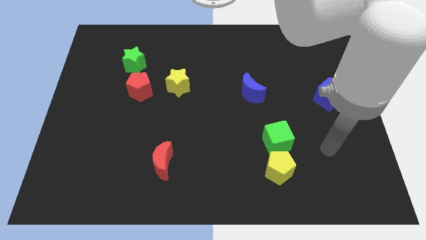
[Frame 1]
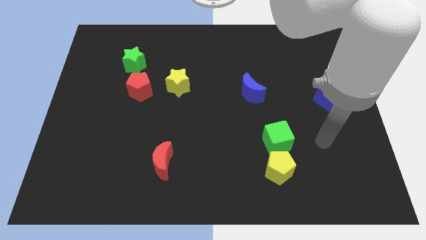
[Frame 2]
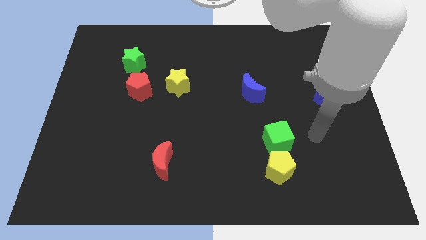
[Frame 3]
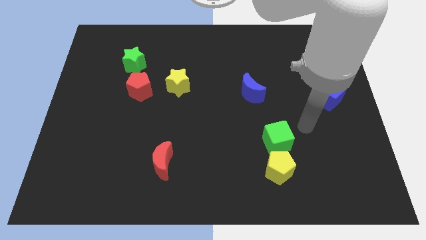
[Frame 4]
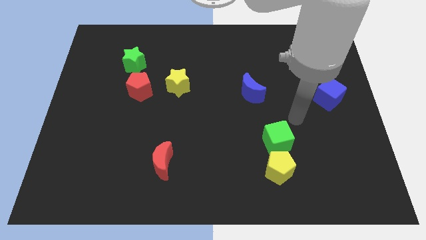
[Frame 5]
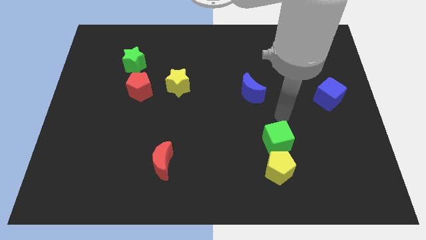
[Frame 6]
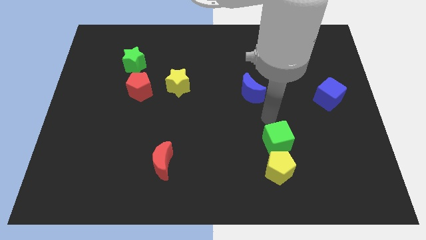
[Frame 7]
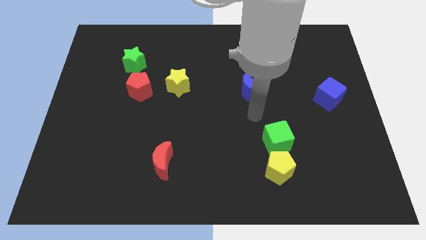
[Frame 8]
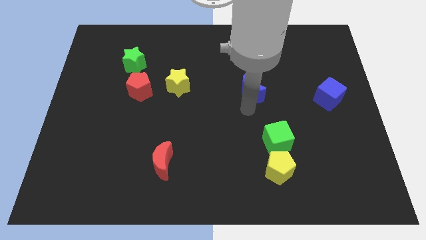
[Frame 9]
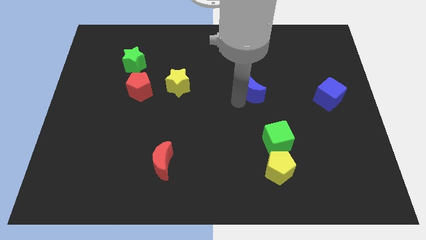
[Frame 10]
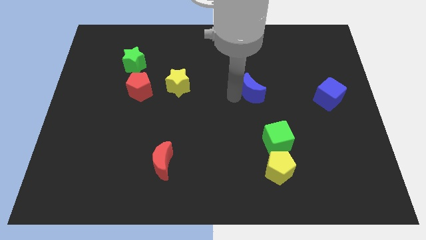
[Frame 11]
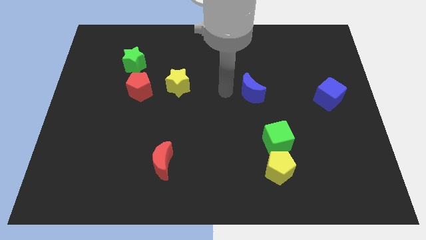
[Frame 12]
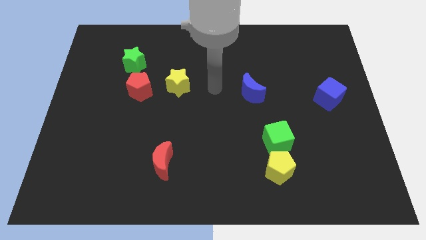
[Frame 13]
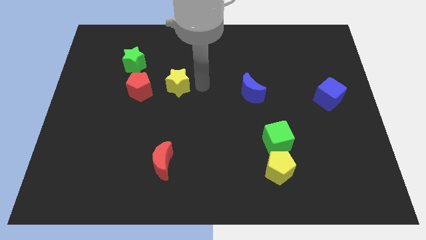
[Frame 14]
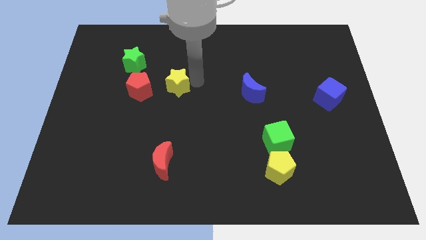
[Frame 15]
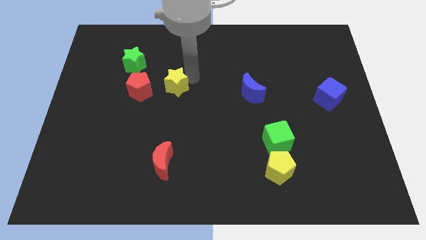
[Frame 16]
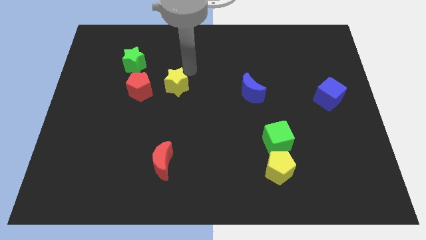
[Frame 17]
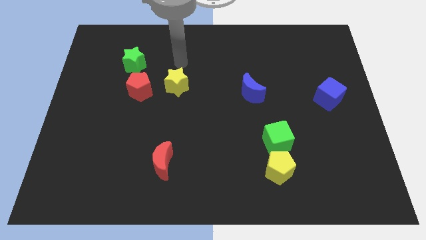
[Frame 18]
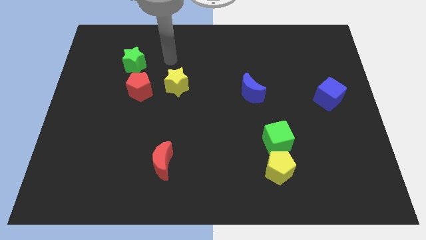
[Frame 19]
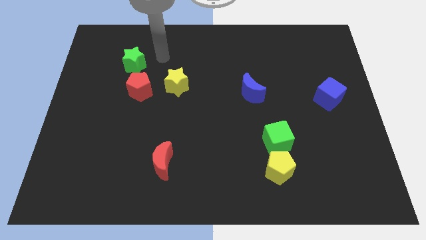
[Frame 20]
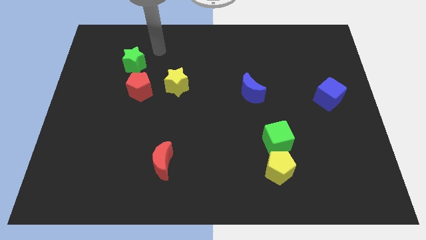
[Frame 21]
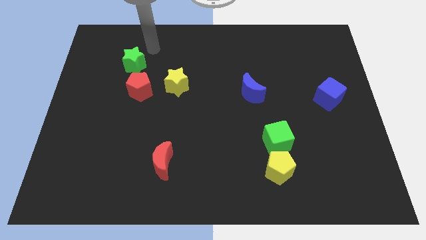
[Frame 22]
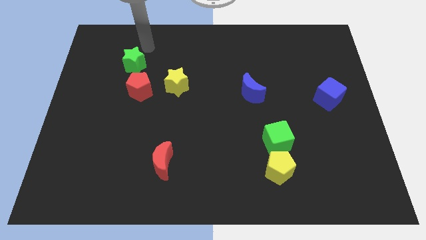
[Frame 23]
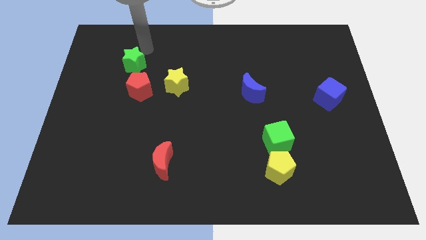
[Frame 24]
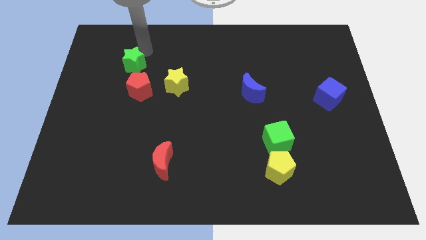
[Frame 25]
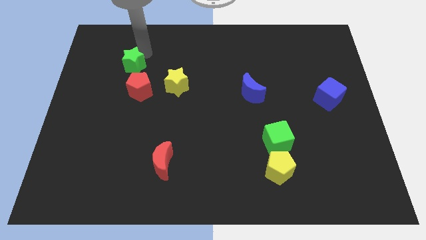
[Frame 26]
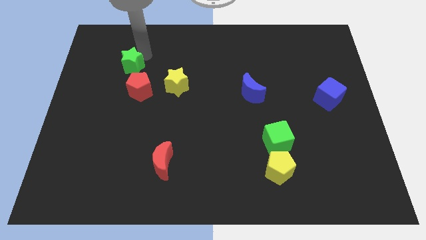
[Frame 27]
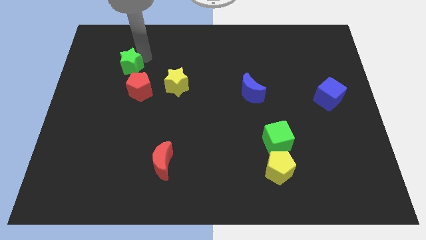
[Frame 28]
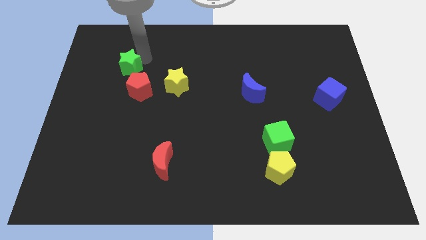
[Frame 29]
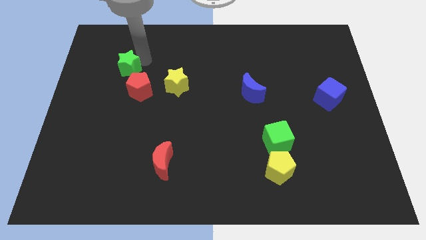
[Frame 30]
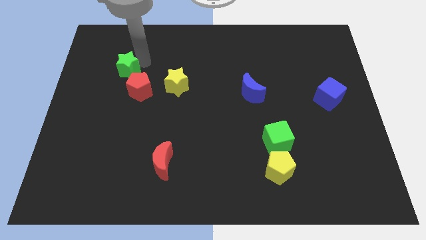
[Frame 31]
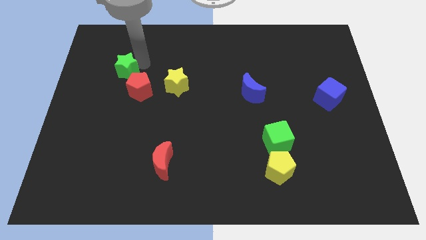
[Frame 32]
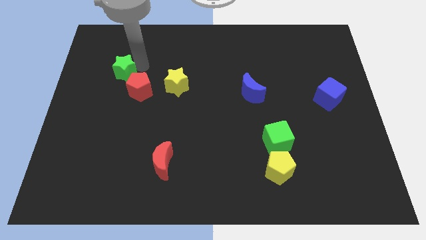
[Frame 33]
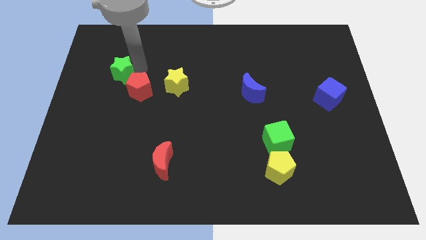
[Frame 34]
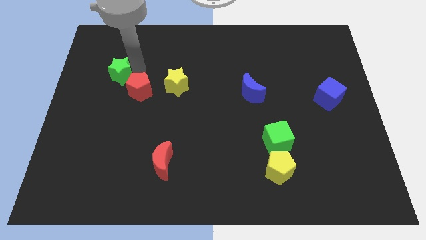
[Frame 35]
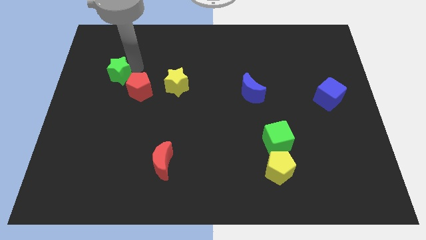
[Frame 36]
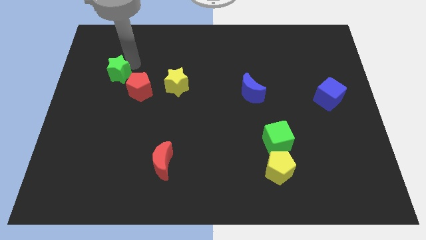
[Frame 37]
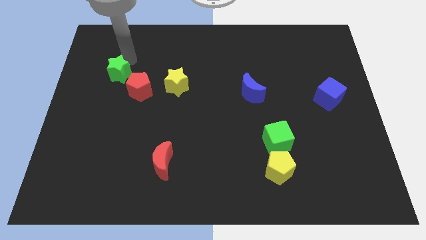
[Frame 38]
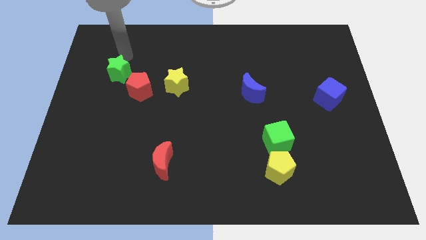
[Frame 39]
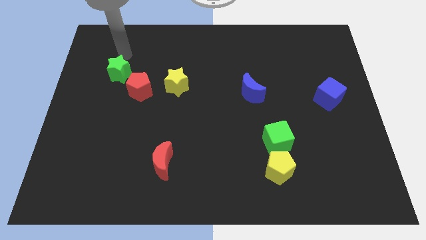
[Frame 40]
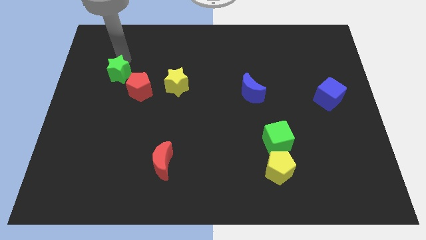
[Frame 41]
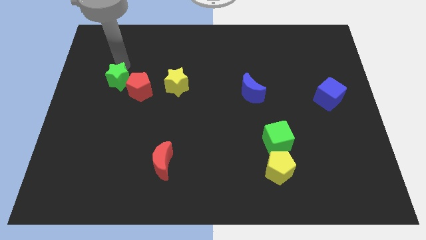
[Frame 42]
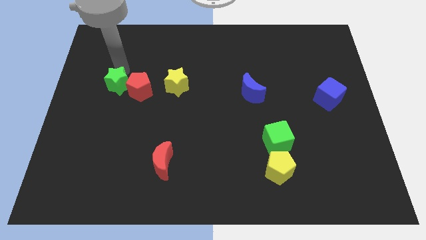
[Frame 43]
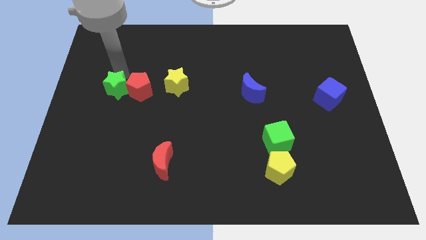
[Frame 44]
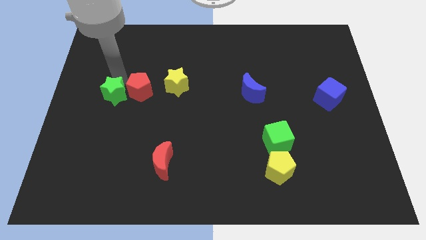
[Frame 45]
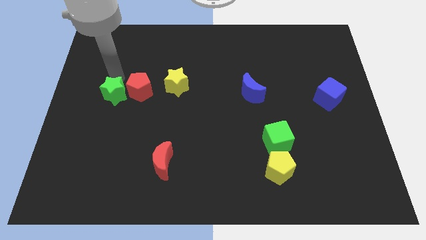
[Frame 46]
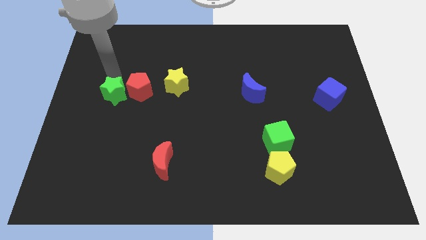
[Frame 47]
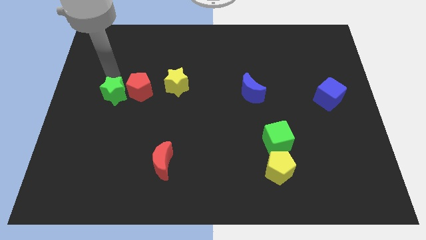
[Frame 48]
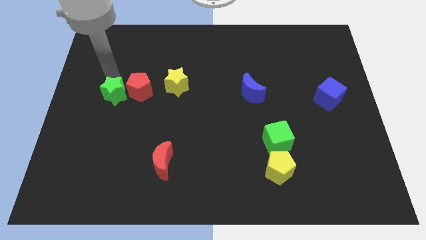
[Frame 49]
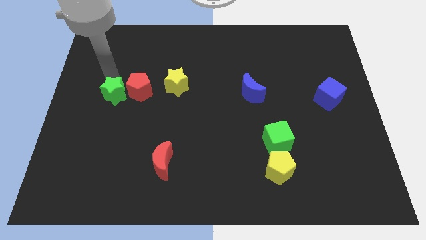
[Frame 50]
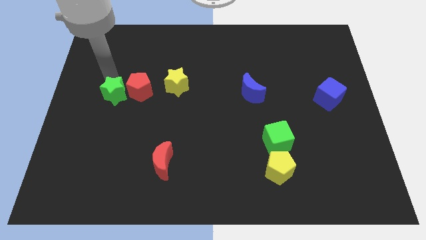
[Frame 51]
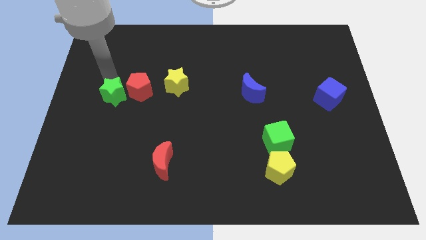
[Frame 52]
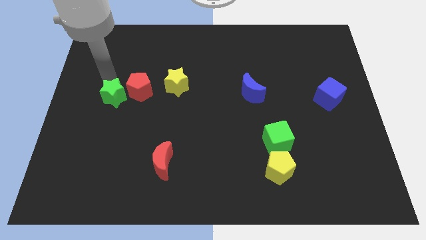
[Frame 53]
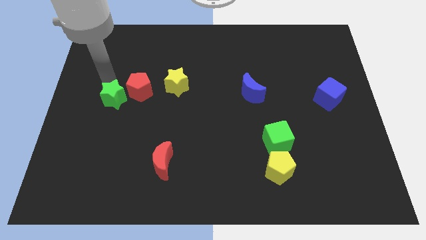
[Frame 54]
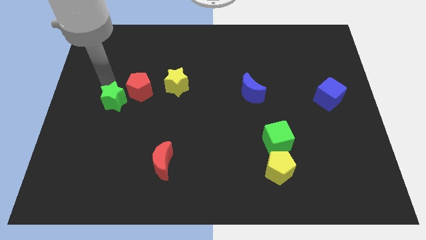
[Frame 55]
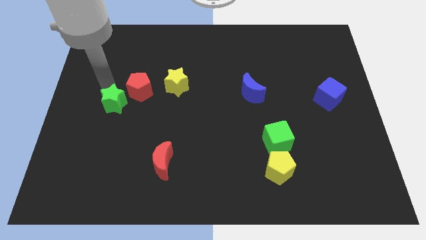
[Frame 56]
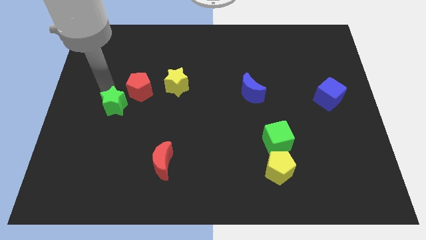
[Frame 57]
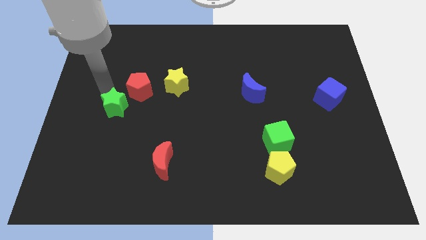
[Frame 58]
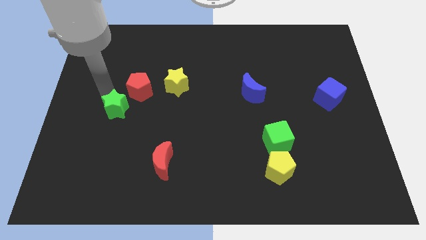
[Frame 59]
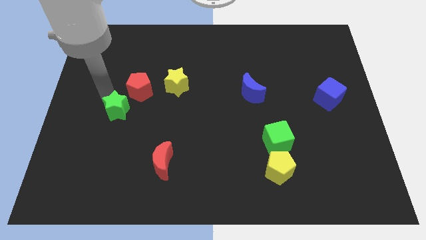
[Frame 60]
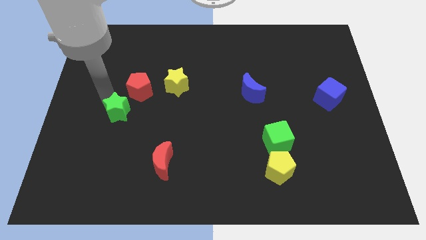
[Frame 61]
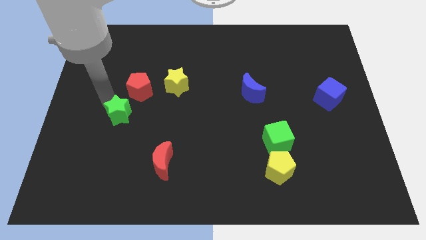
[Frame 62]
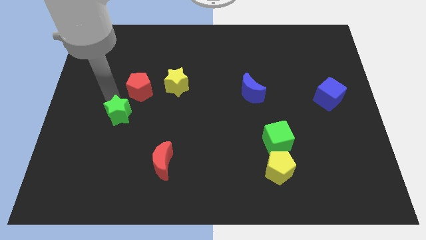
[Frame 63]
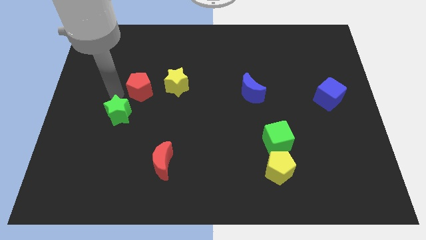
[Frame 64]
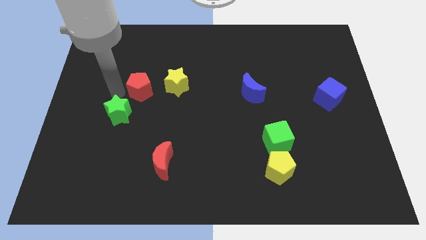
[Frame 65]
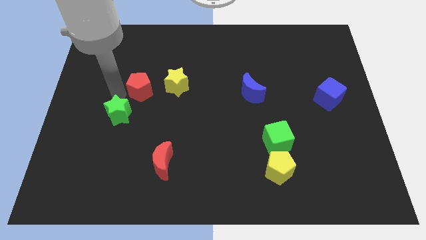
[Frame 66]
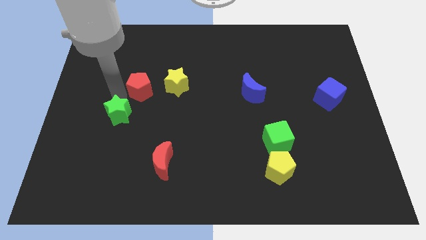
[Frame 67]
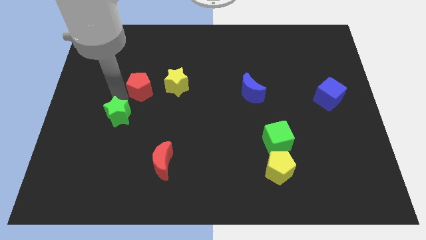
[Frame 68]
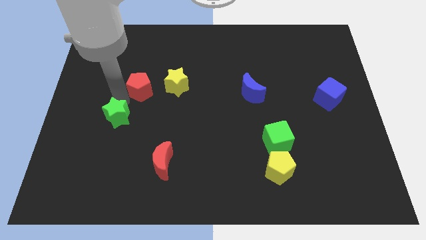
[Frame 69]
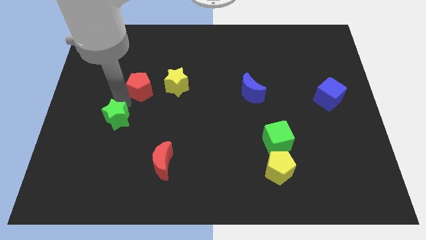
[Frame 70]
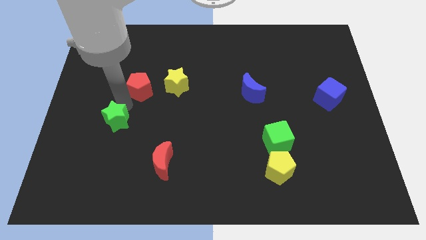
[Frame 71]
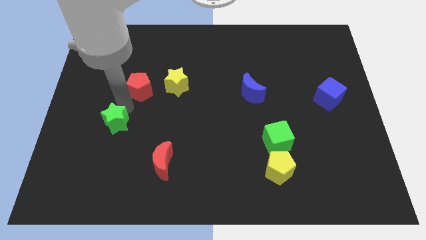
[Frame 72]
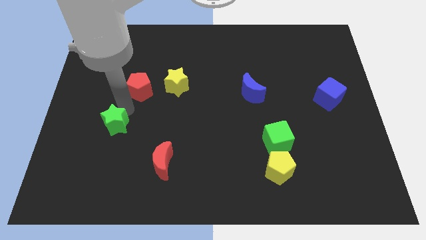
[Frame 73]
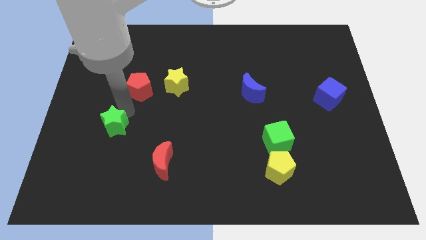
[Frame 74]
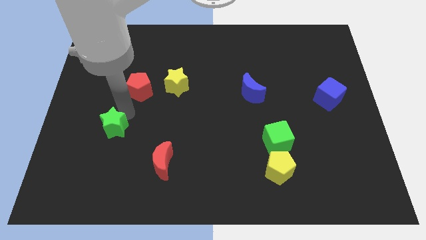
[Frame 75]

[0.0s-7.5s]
slide the green star downwards

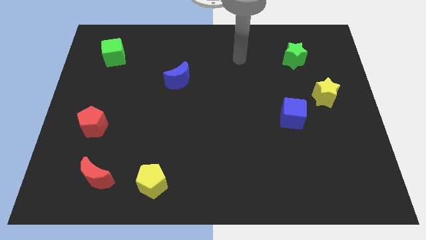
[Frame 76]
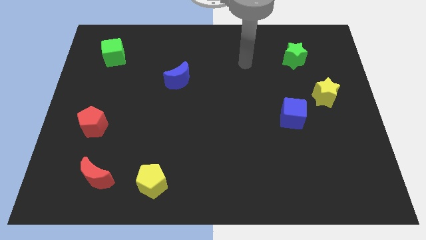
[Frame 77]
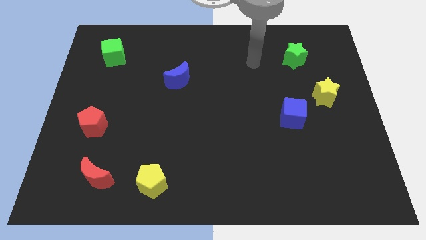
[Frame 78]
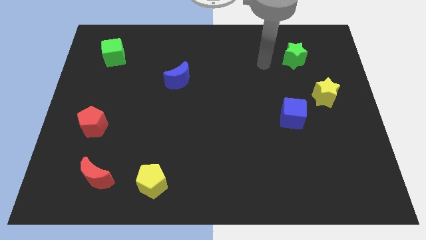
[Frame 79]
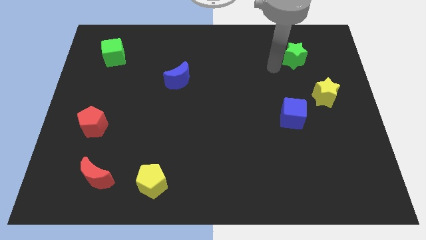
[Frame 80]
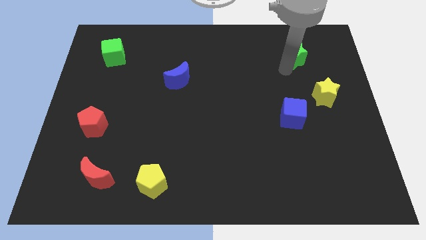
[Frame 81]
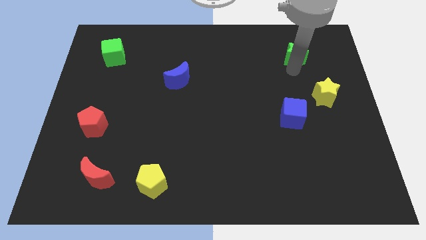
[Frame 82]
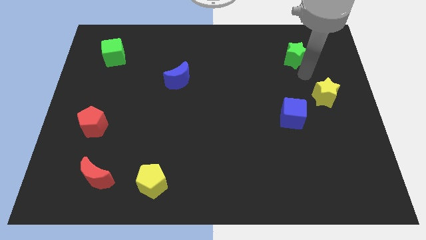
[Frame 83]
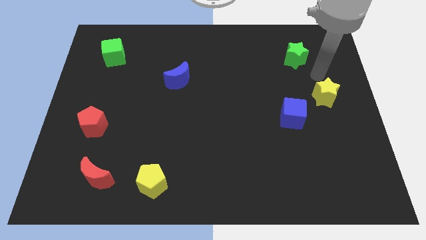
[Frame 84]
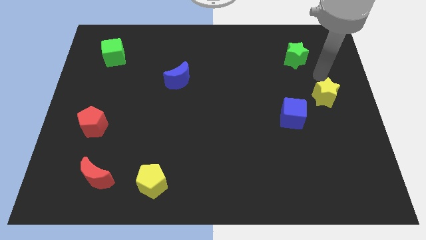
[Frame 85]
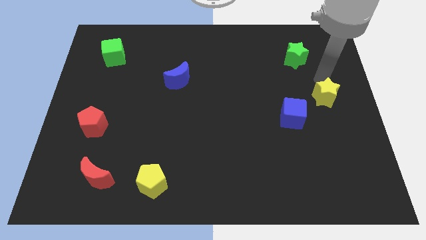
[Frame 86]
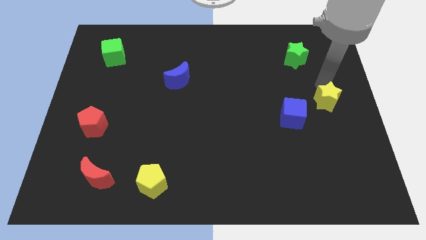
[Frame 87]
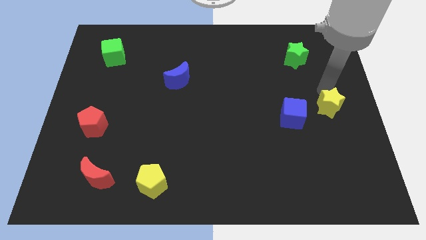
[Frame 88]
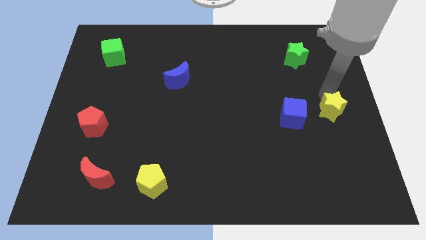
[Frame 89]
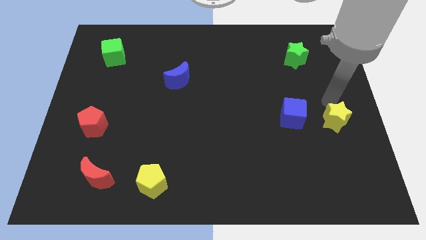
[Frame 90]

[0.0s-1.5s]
move the yellow star a little bit down
